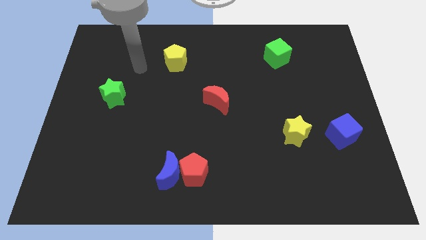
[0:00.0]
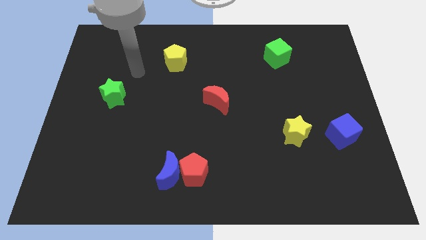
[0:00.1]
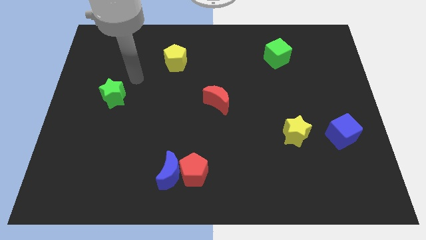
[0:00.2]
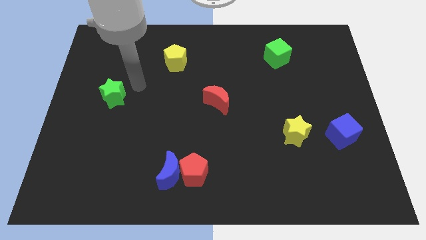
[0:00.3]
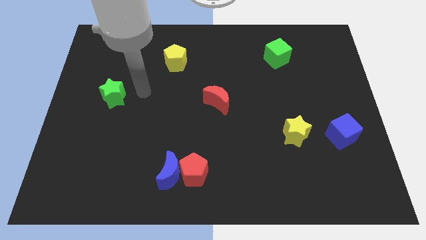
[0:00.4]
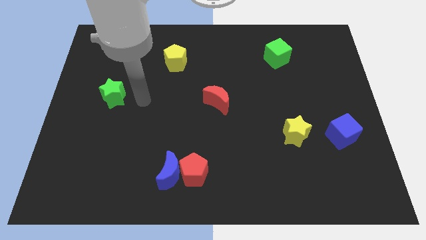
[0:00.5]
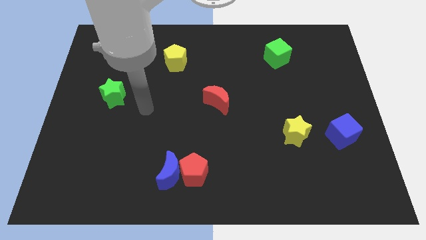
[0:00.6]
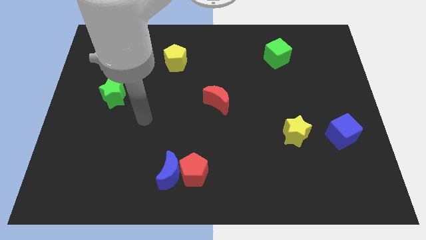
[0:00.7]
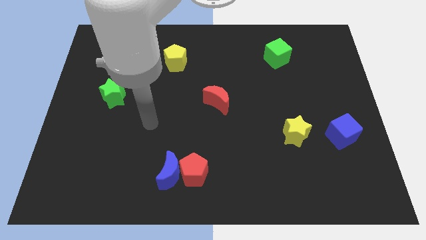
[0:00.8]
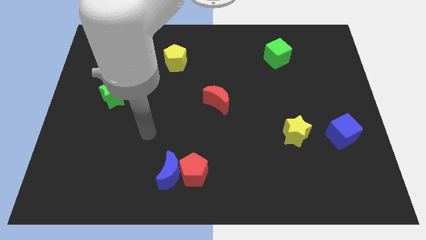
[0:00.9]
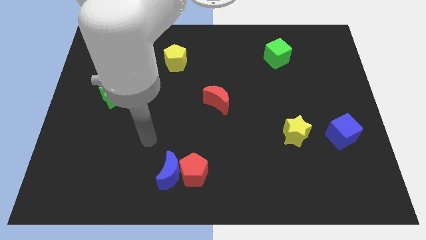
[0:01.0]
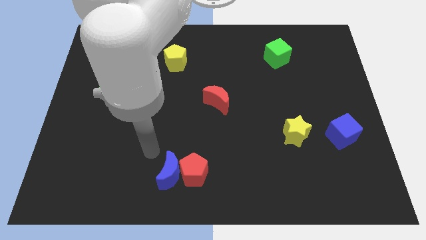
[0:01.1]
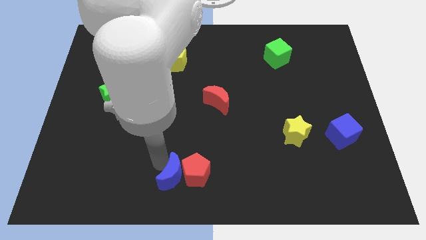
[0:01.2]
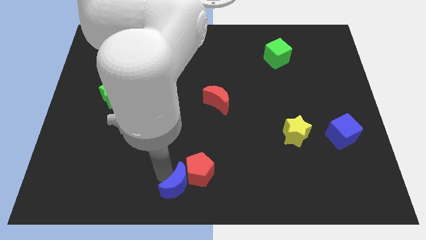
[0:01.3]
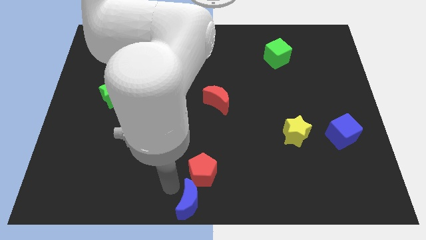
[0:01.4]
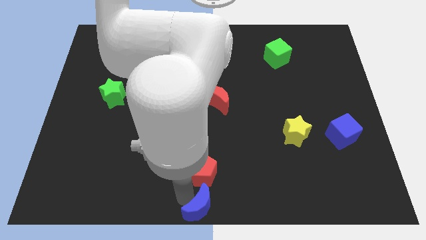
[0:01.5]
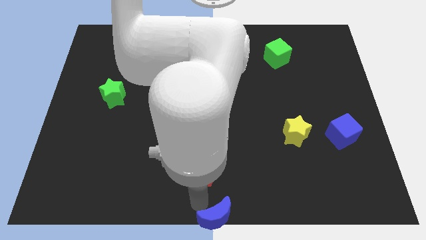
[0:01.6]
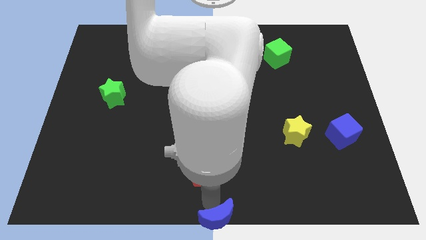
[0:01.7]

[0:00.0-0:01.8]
move the red pentagon away from the blue moon

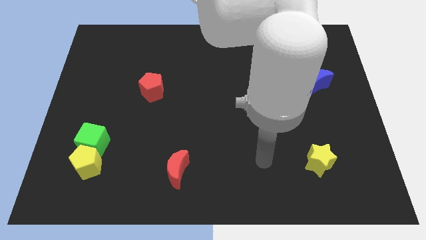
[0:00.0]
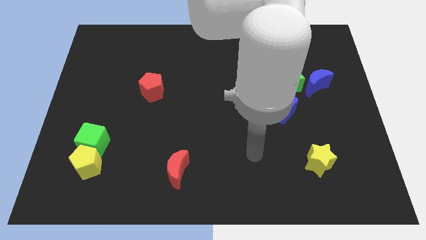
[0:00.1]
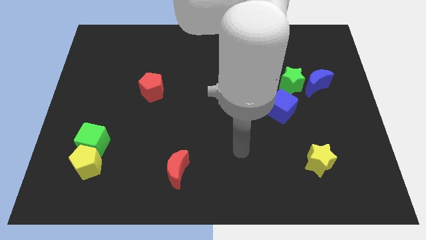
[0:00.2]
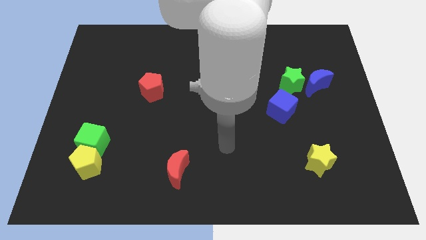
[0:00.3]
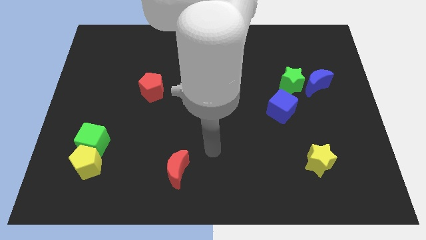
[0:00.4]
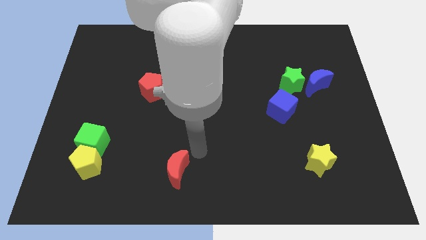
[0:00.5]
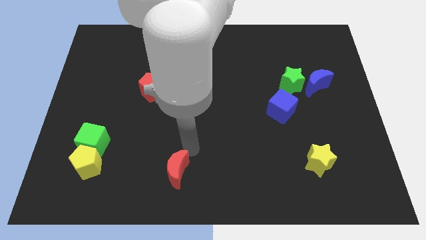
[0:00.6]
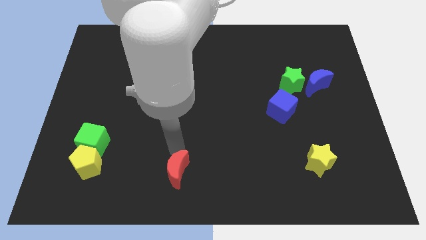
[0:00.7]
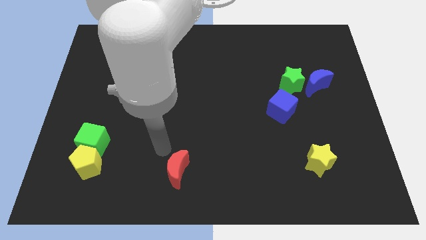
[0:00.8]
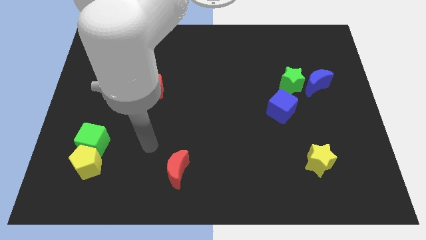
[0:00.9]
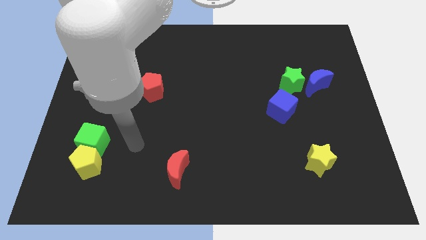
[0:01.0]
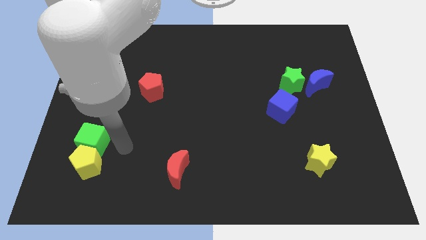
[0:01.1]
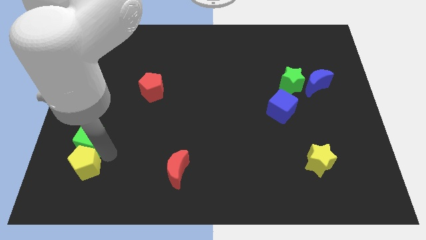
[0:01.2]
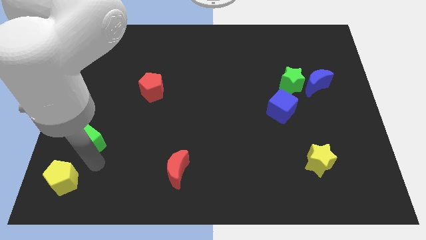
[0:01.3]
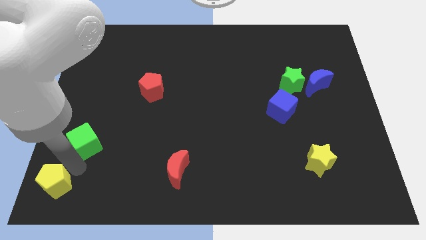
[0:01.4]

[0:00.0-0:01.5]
move the green cube away from the yellow pentagon

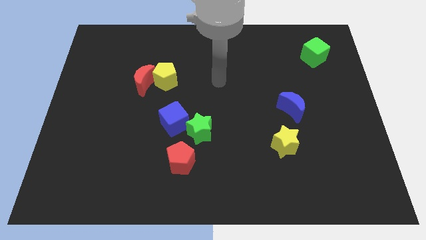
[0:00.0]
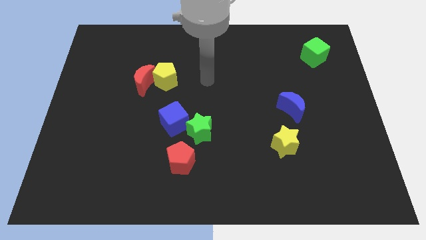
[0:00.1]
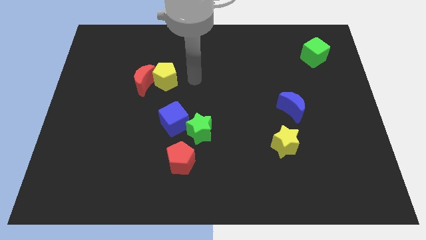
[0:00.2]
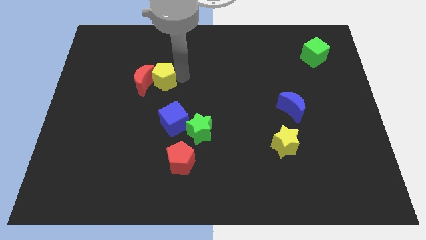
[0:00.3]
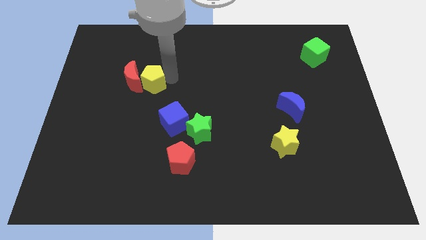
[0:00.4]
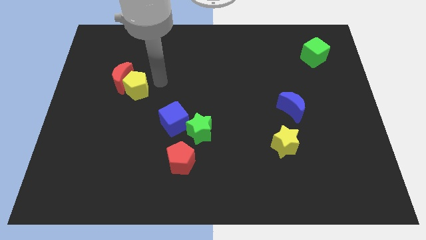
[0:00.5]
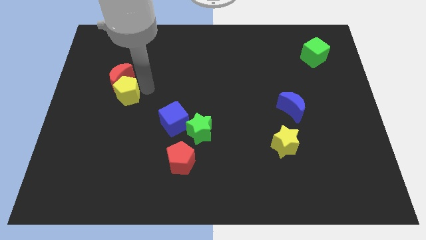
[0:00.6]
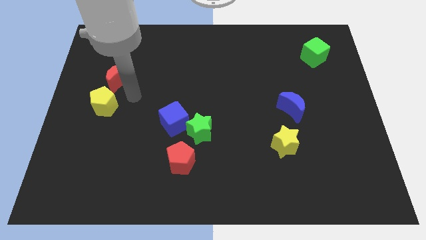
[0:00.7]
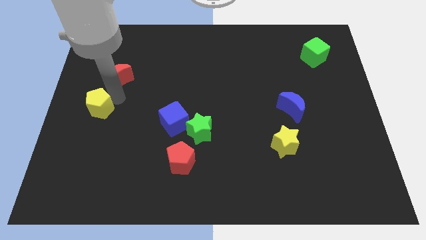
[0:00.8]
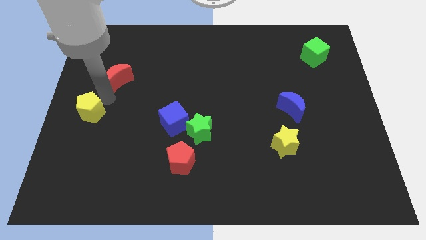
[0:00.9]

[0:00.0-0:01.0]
pull the red moon apart from the yellow pentagon

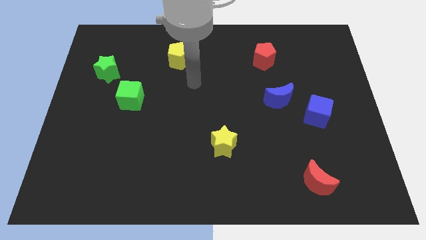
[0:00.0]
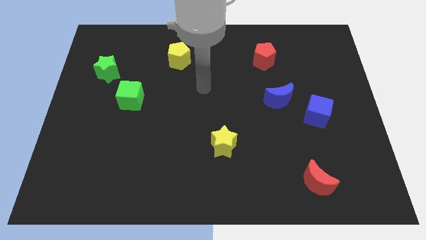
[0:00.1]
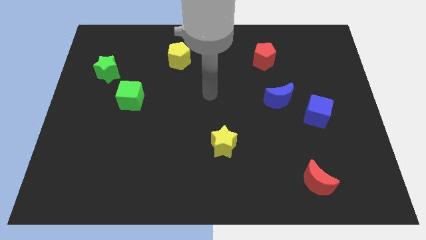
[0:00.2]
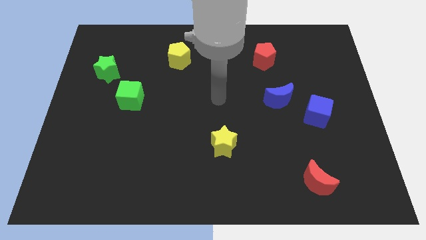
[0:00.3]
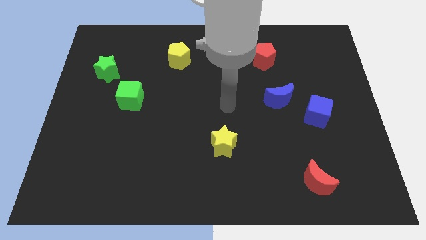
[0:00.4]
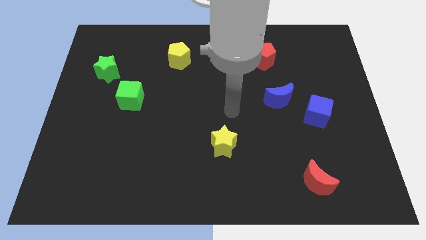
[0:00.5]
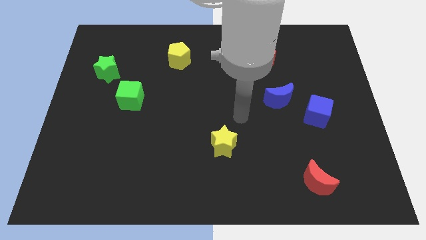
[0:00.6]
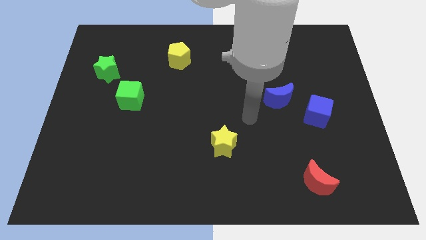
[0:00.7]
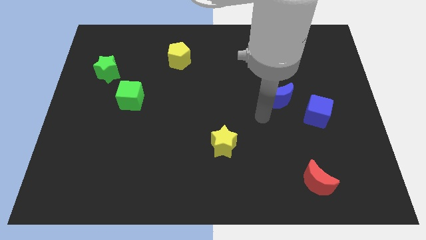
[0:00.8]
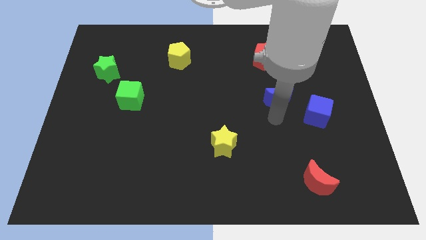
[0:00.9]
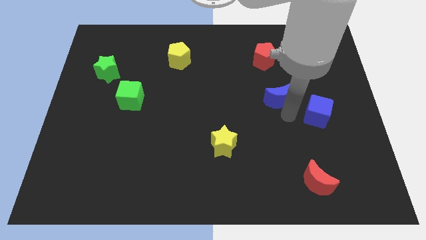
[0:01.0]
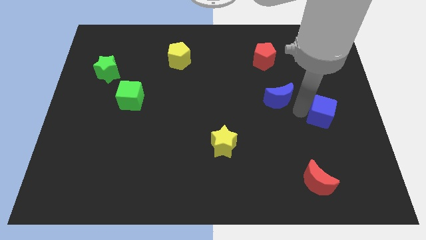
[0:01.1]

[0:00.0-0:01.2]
separate the blue moon from the blue cube

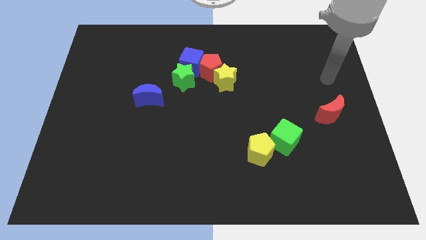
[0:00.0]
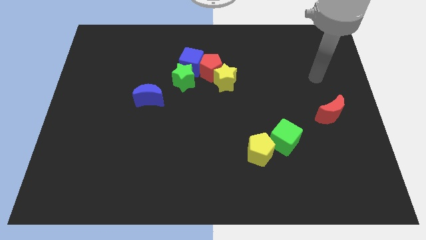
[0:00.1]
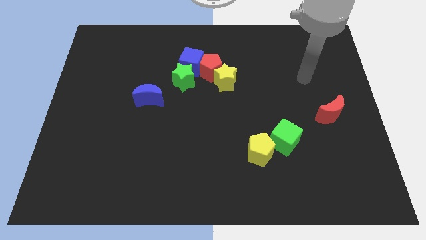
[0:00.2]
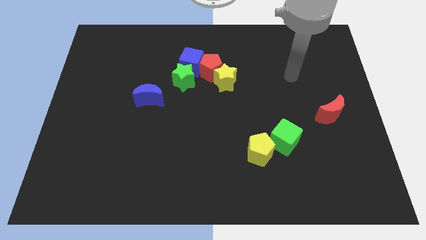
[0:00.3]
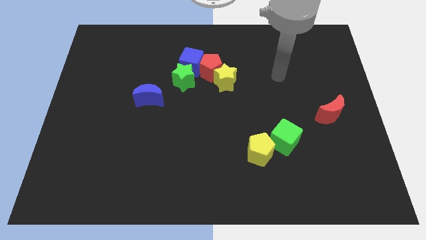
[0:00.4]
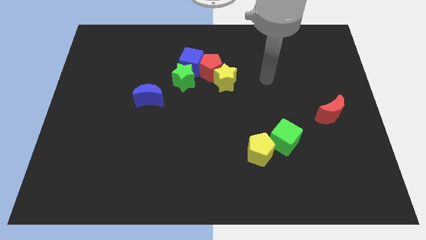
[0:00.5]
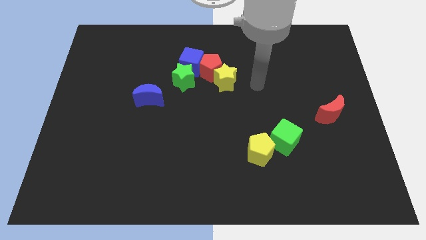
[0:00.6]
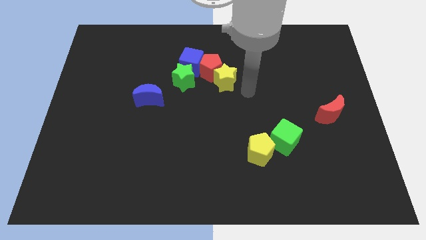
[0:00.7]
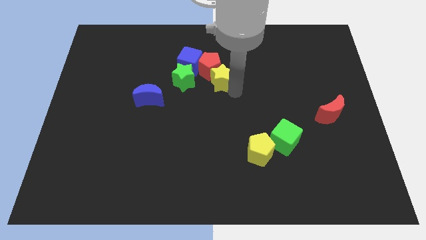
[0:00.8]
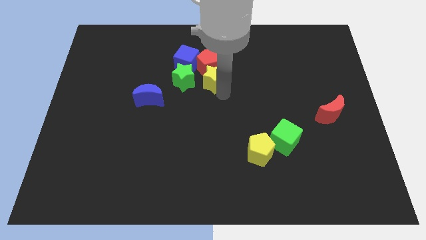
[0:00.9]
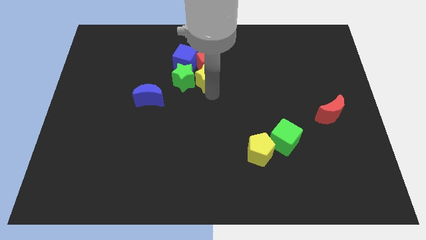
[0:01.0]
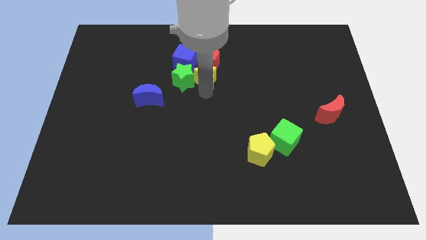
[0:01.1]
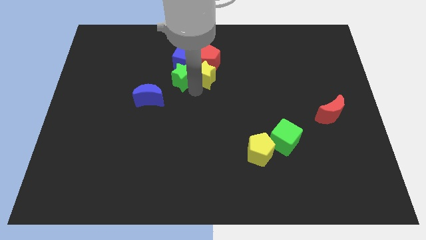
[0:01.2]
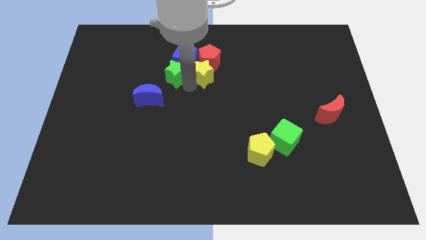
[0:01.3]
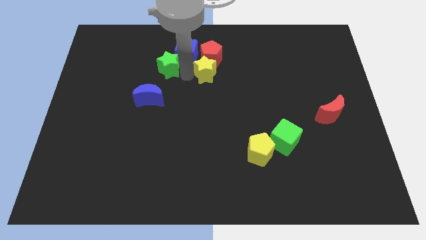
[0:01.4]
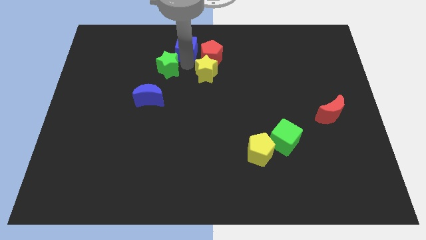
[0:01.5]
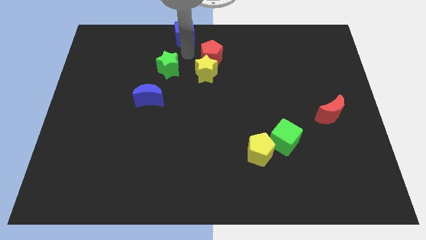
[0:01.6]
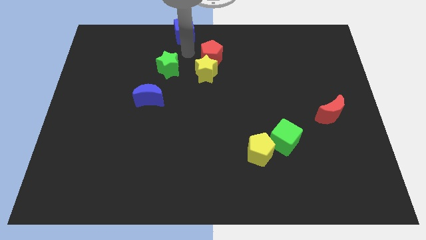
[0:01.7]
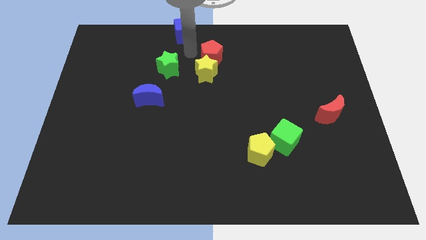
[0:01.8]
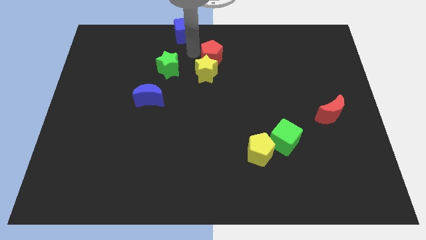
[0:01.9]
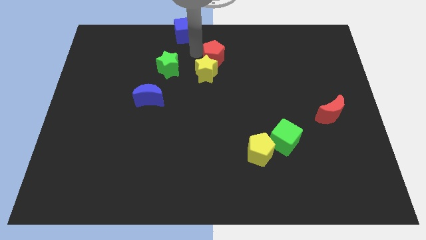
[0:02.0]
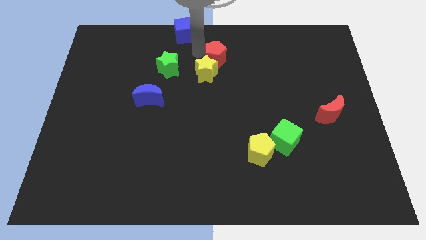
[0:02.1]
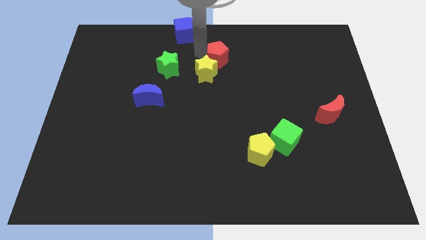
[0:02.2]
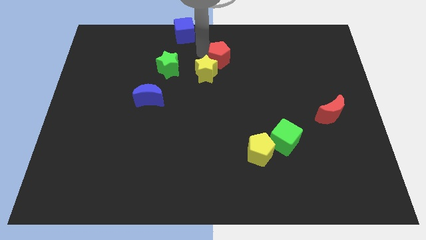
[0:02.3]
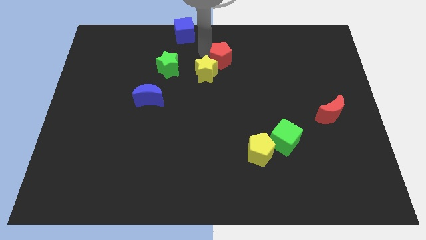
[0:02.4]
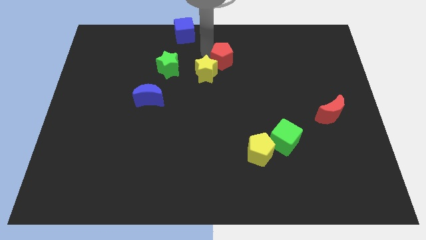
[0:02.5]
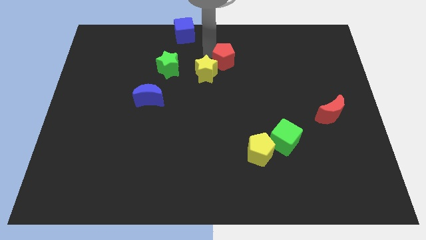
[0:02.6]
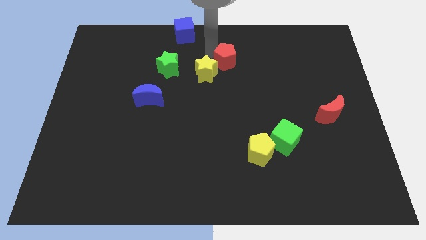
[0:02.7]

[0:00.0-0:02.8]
pull the red pentagon apart from the group

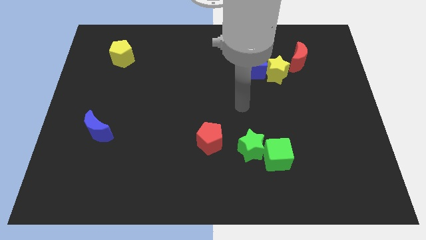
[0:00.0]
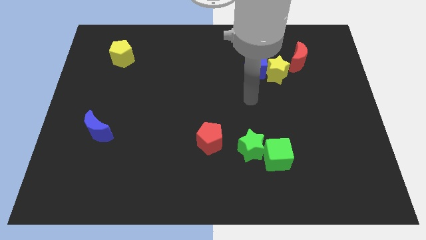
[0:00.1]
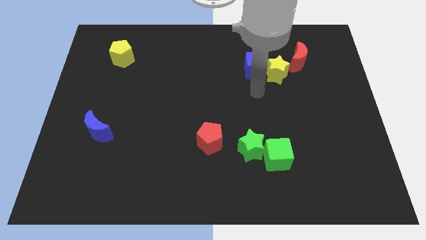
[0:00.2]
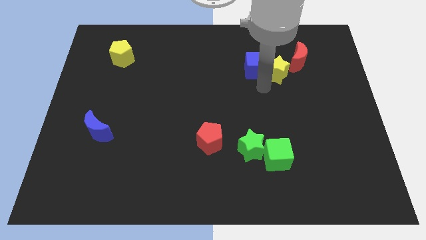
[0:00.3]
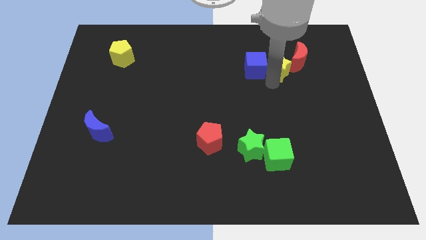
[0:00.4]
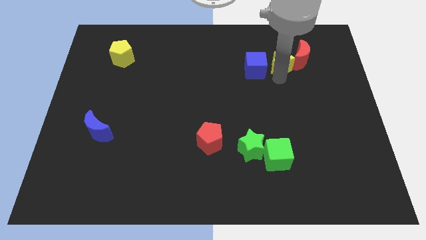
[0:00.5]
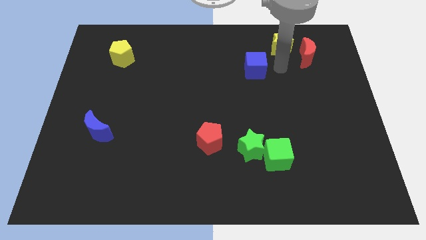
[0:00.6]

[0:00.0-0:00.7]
separate the blue cube from the yellow star

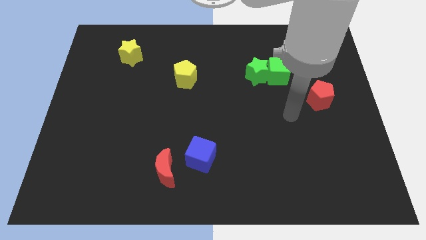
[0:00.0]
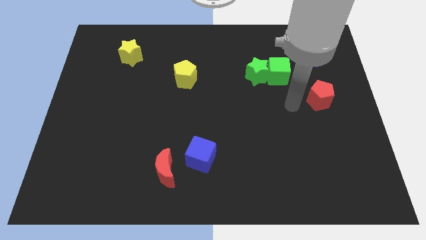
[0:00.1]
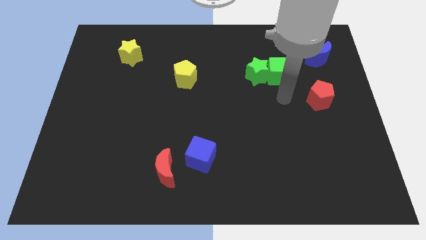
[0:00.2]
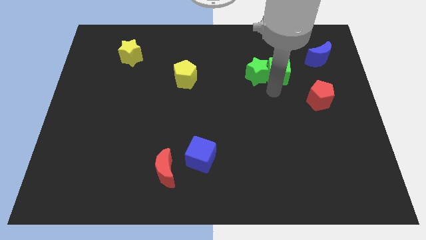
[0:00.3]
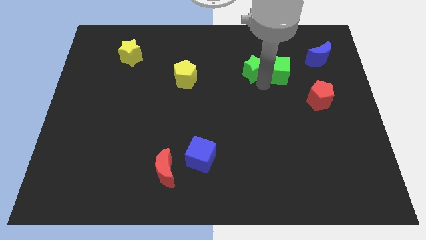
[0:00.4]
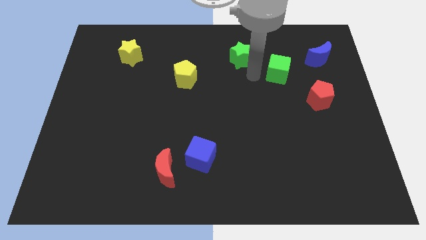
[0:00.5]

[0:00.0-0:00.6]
pull the green cube apart from the green star
